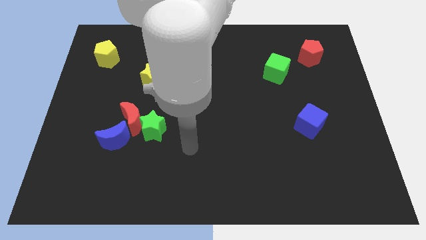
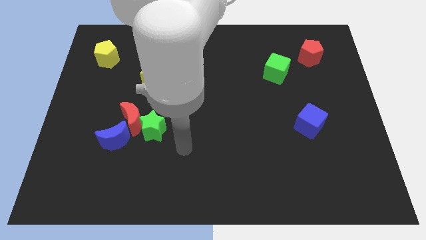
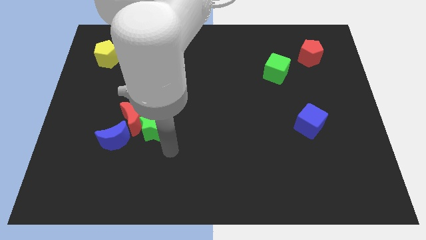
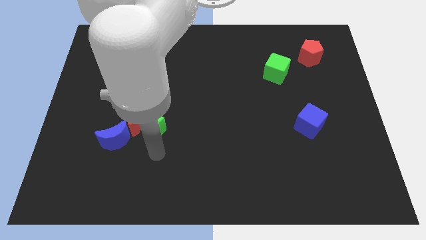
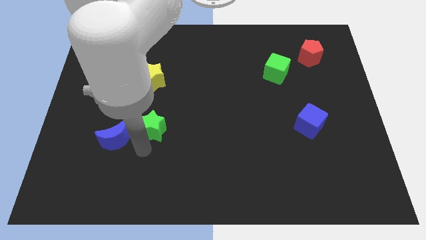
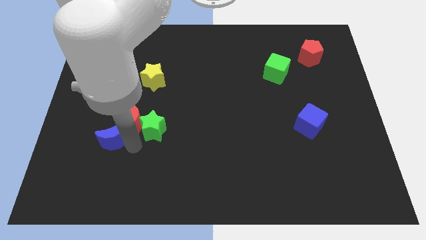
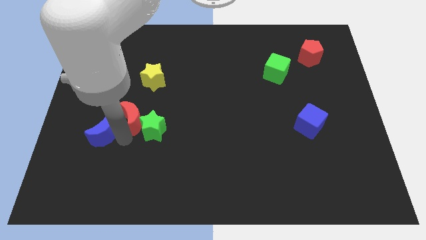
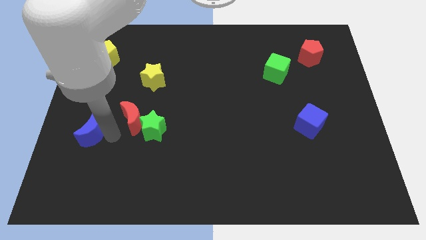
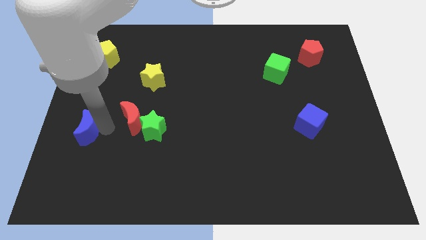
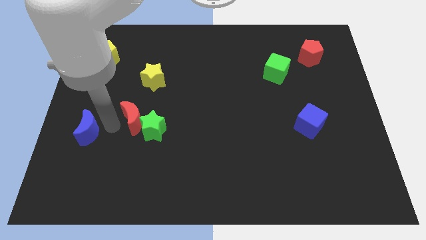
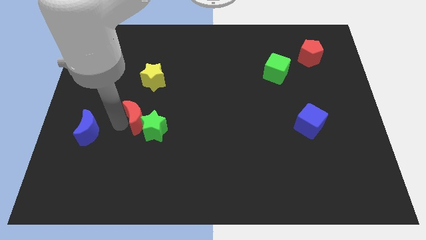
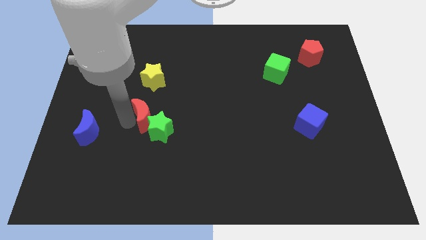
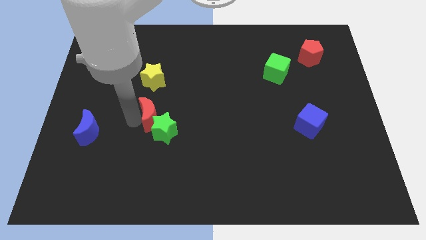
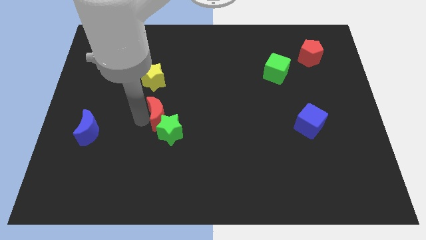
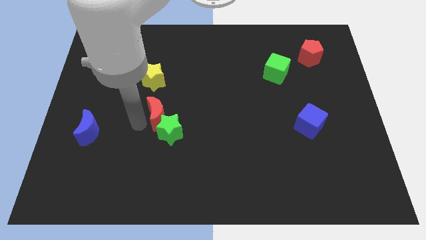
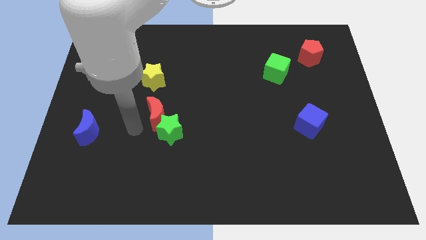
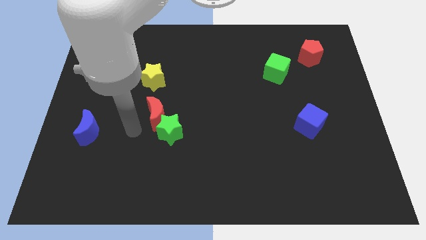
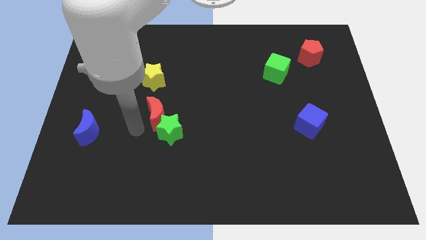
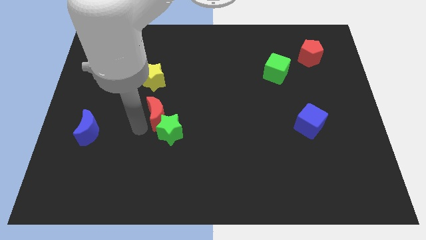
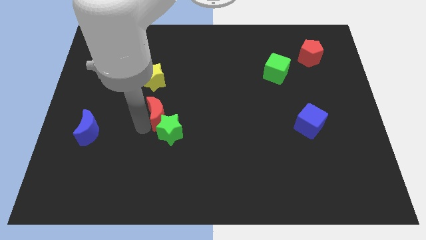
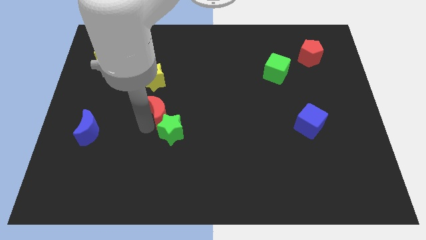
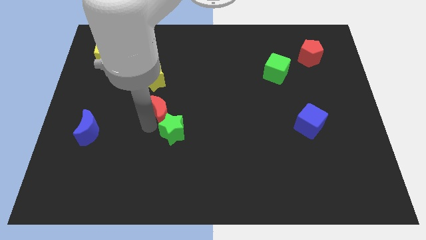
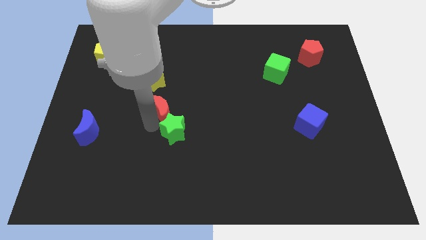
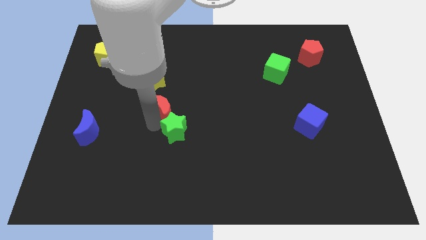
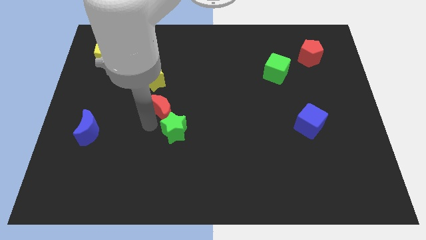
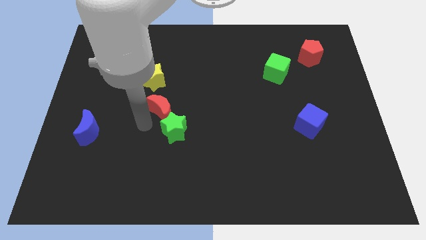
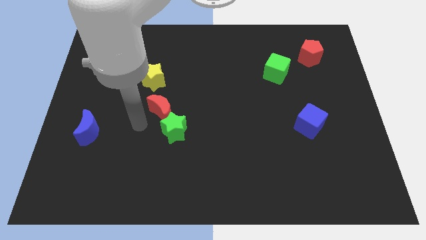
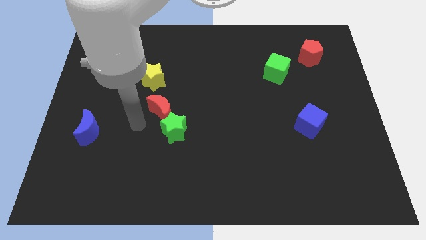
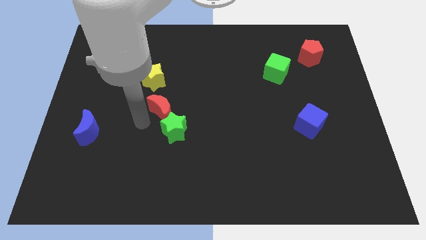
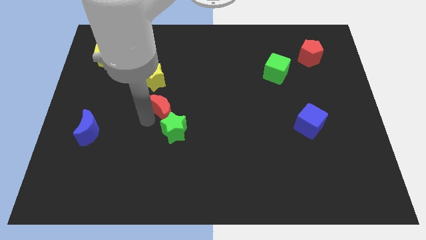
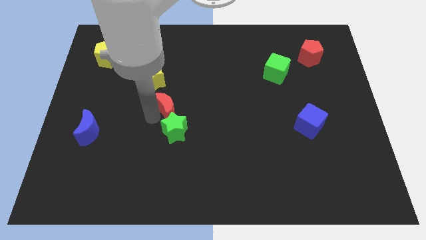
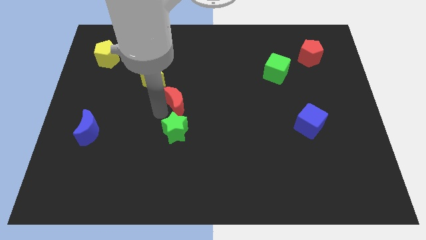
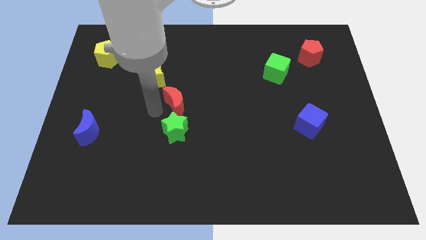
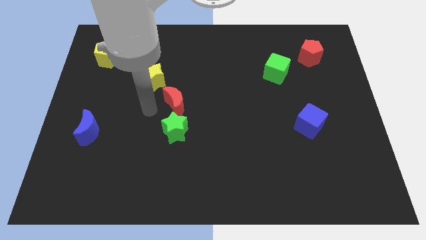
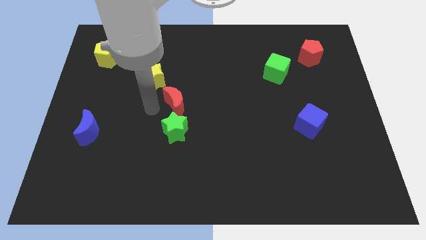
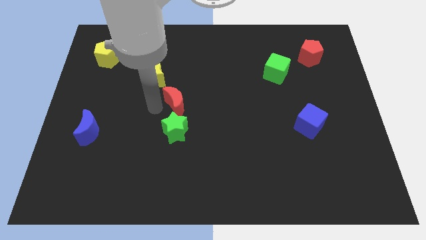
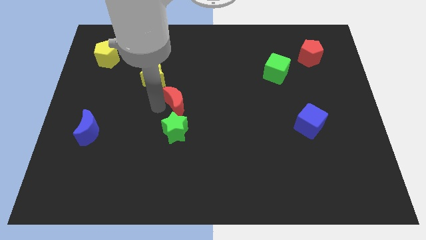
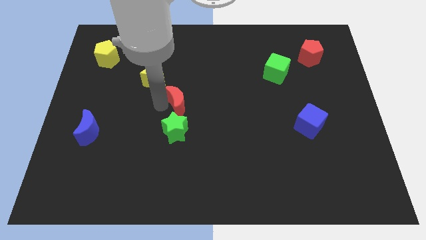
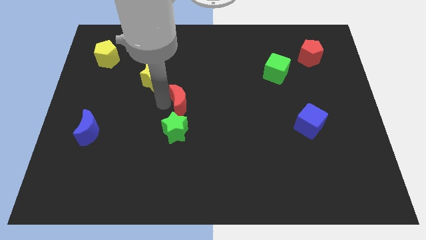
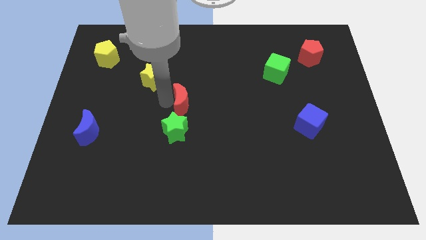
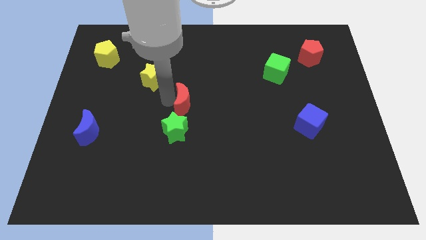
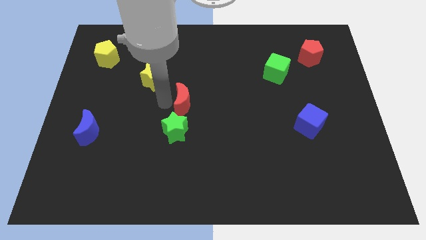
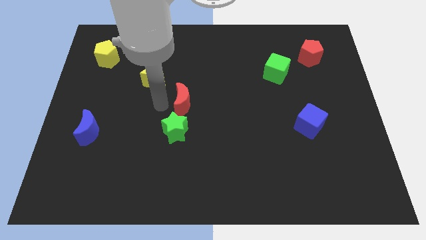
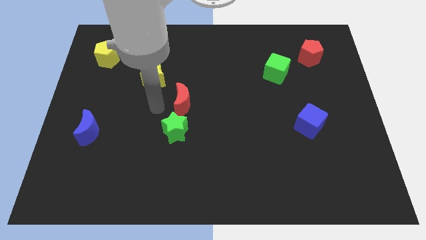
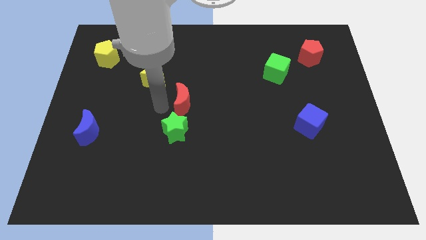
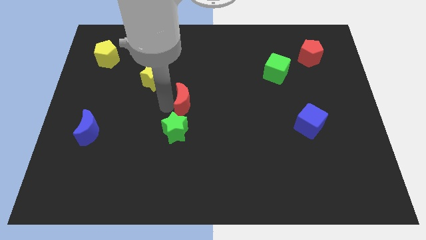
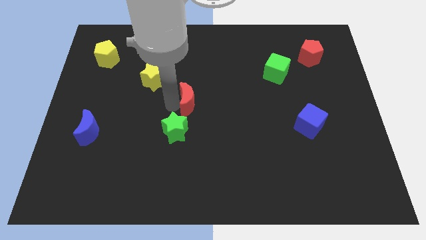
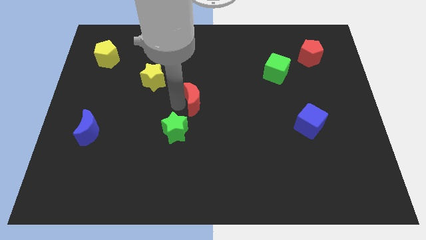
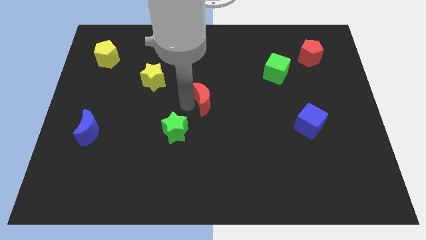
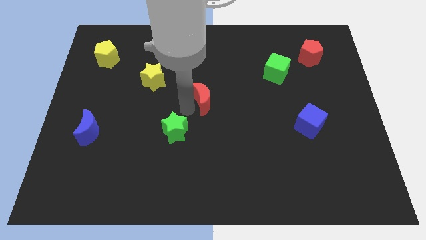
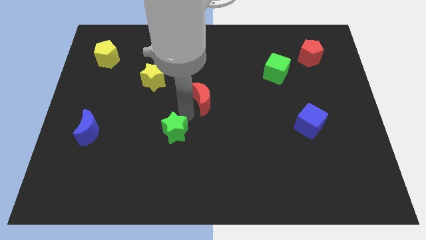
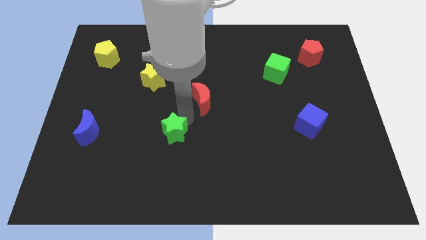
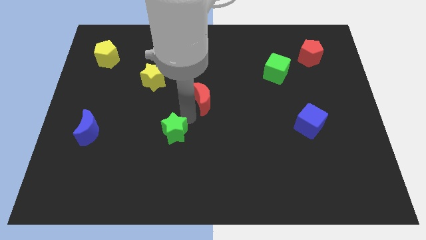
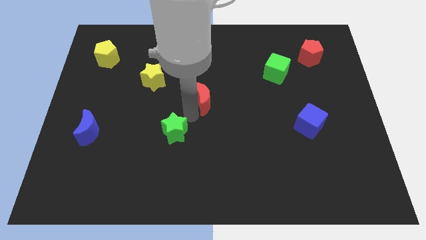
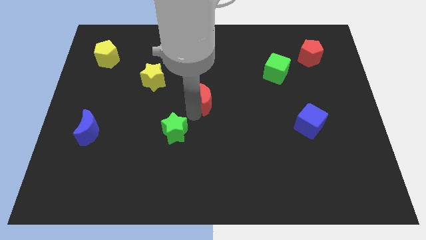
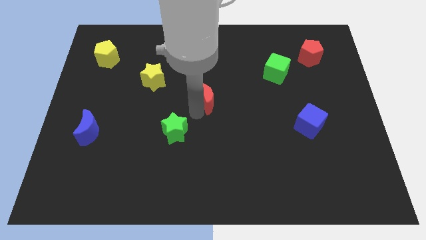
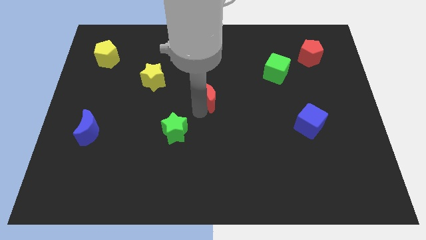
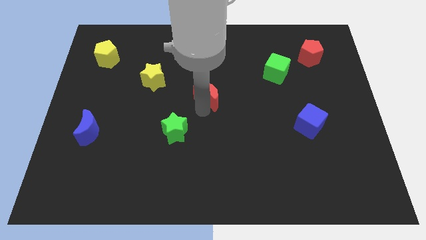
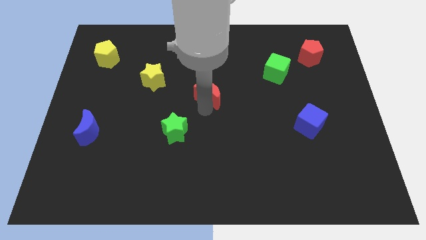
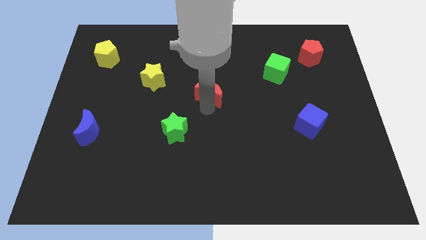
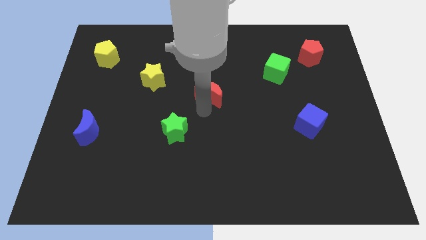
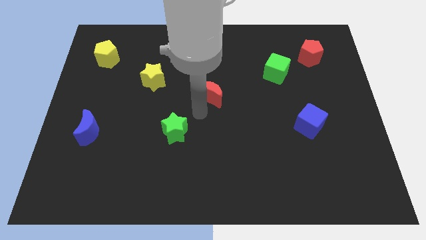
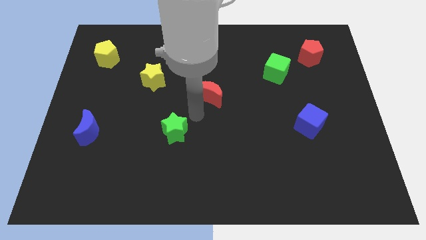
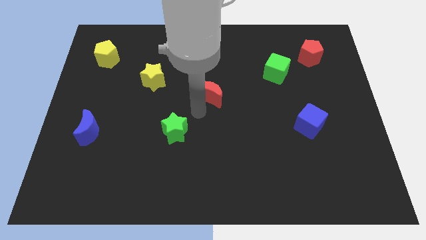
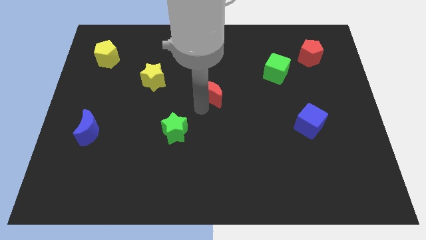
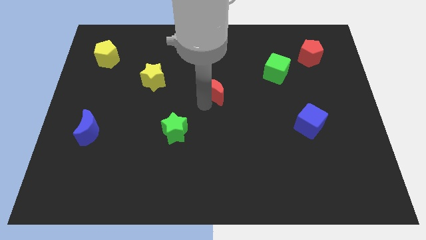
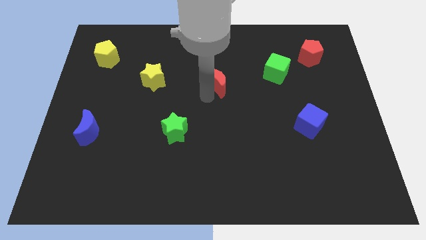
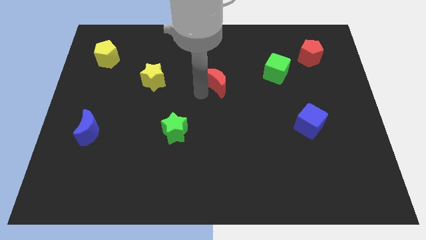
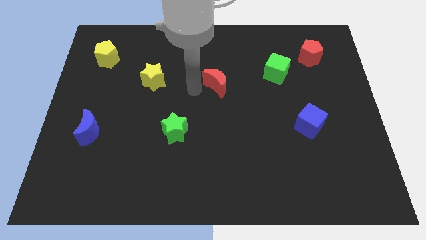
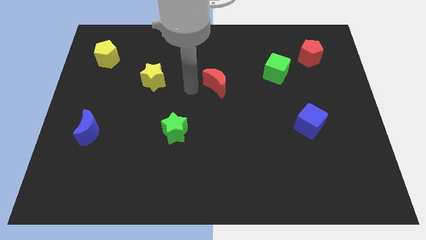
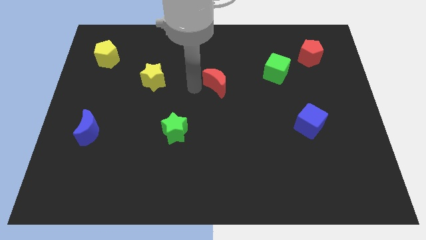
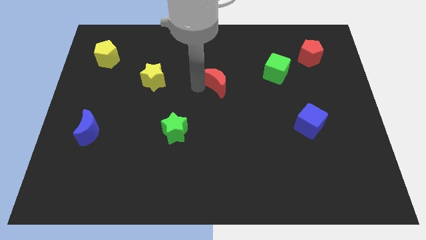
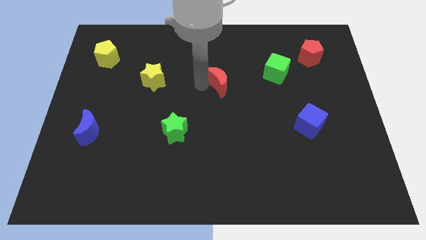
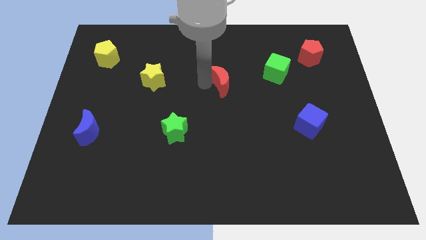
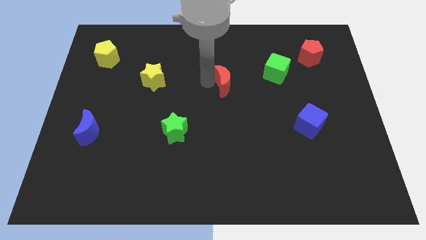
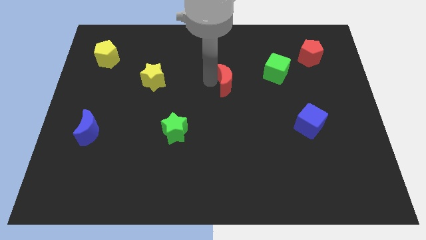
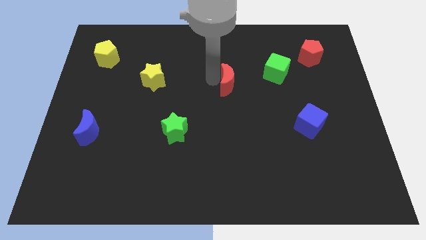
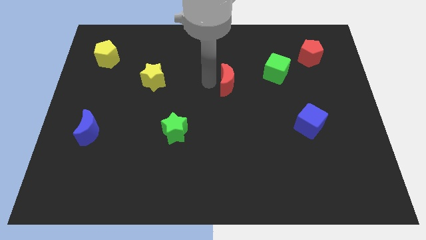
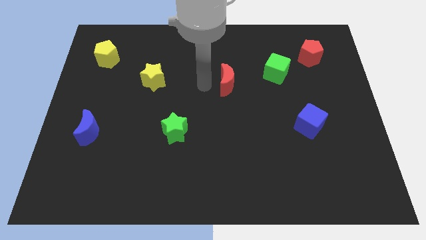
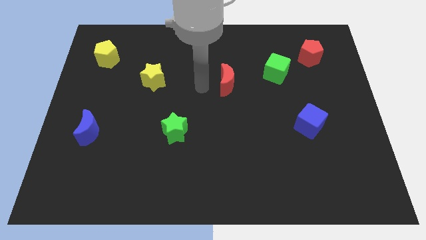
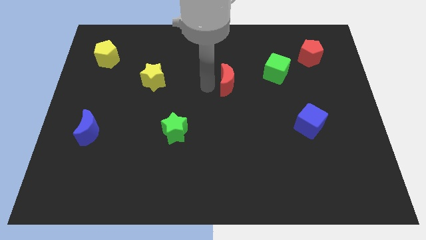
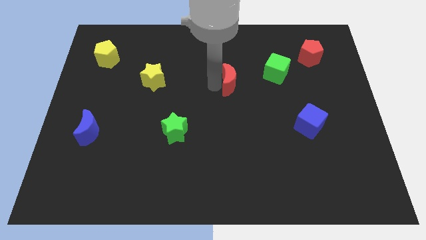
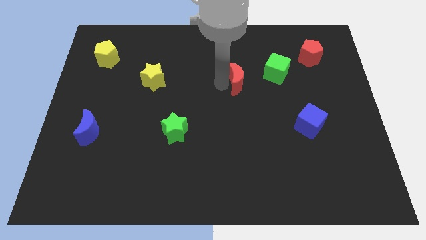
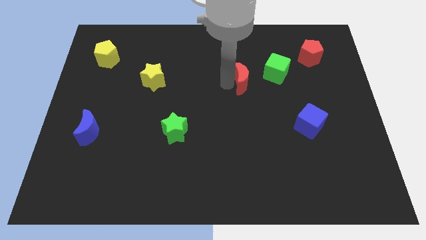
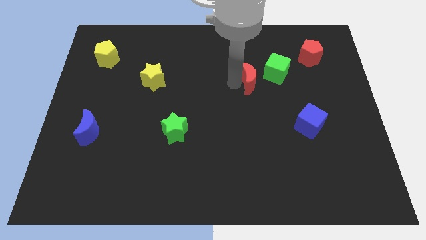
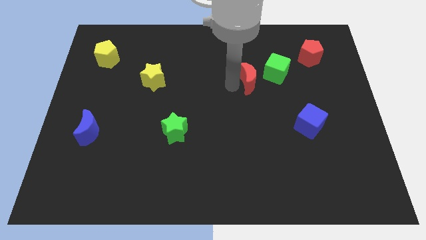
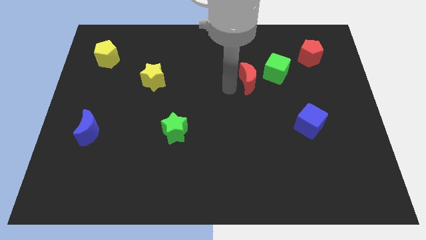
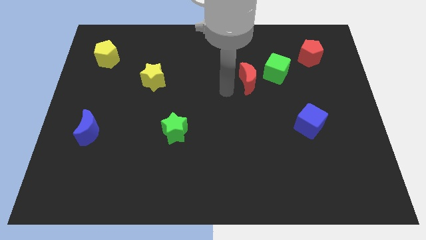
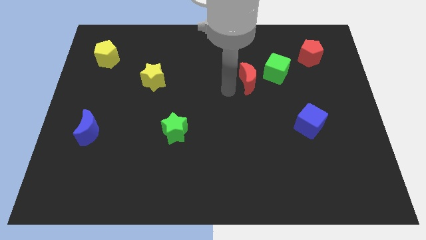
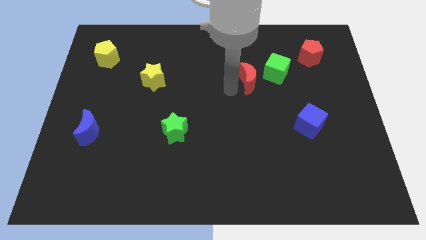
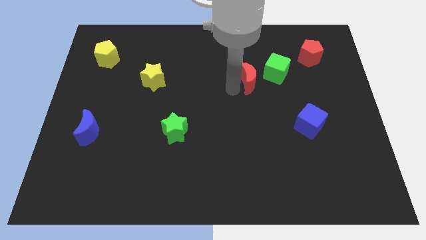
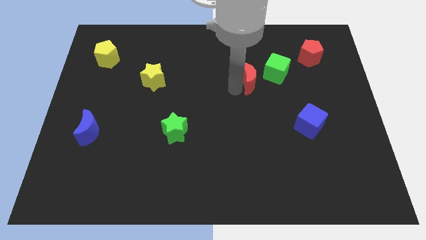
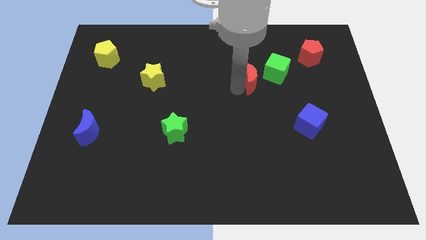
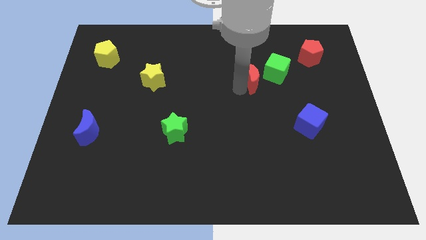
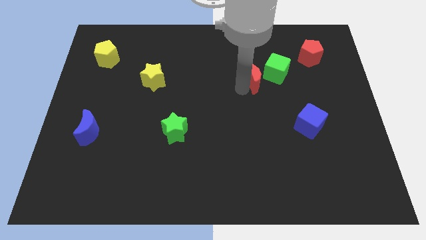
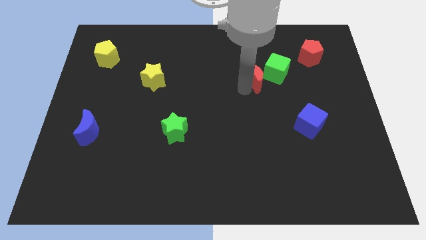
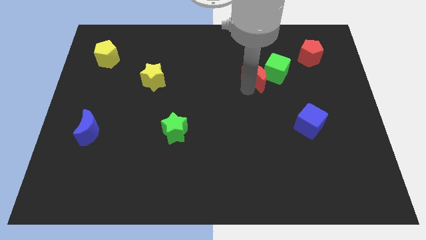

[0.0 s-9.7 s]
slide the red moon close to the green cube
